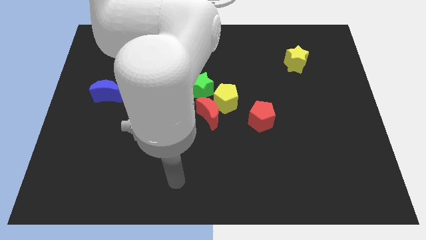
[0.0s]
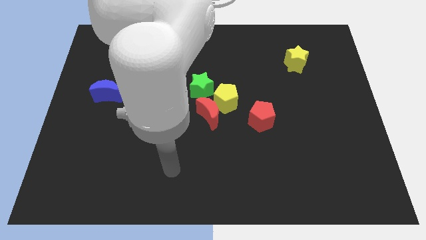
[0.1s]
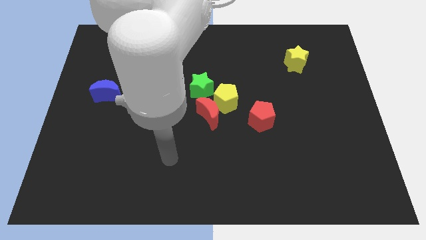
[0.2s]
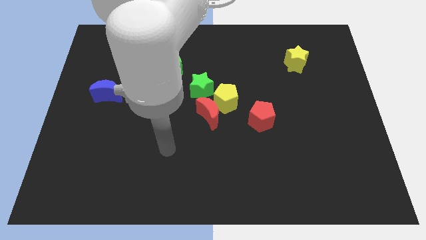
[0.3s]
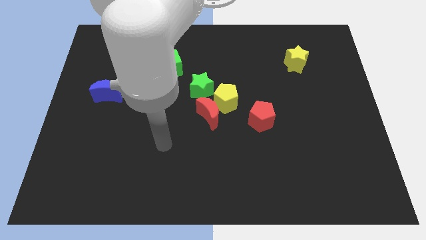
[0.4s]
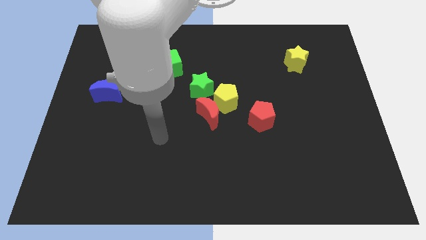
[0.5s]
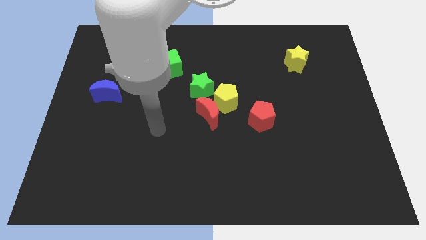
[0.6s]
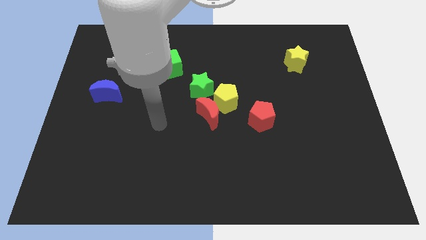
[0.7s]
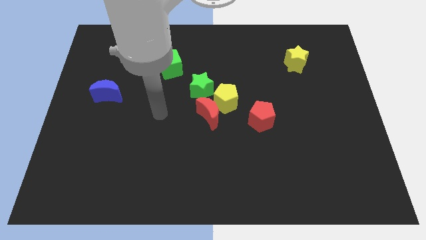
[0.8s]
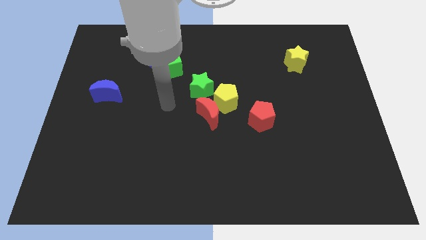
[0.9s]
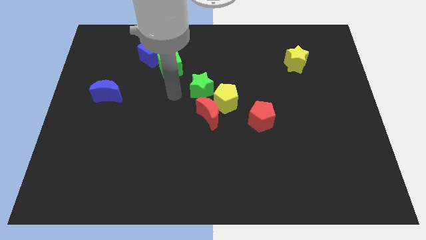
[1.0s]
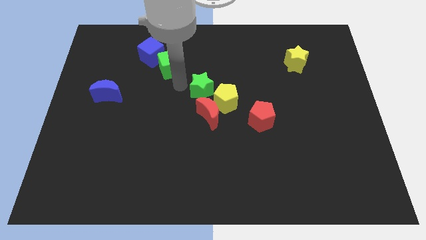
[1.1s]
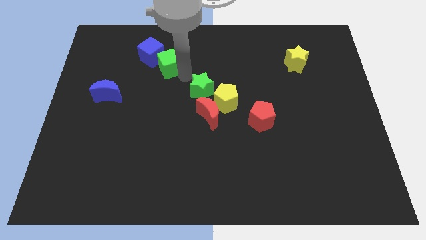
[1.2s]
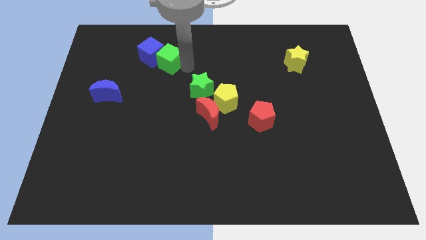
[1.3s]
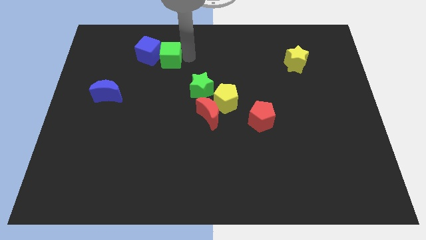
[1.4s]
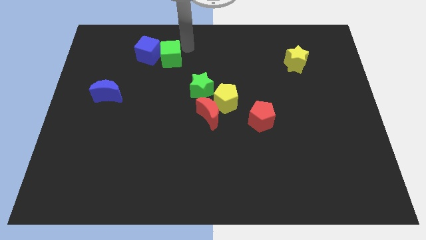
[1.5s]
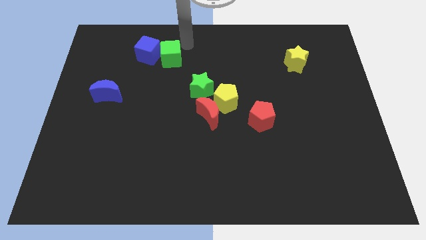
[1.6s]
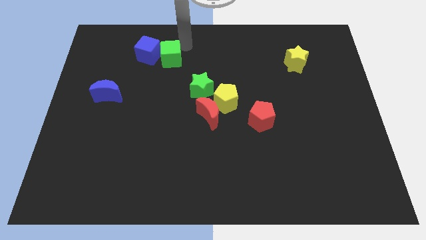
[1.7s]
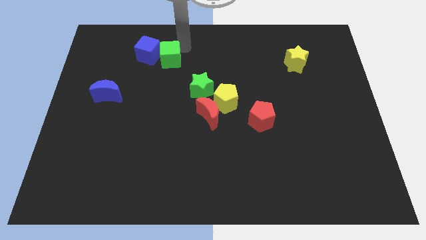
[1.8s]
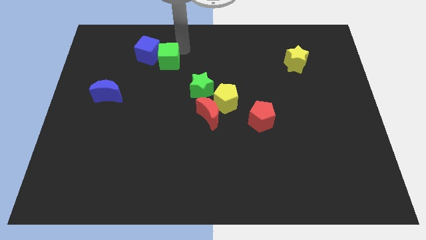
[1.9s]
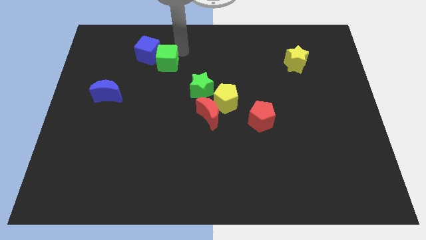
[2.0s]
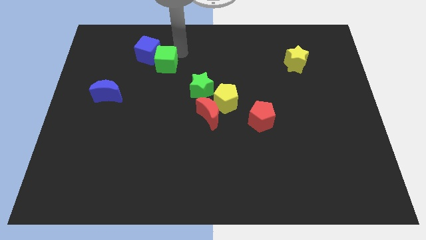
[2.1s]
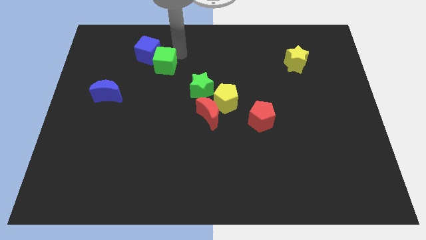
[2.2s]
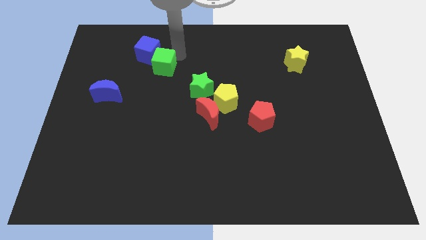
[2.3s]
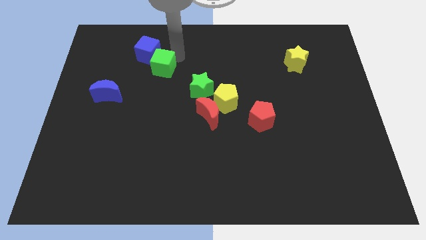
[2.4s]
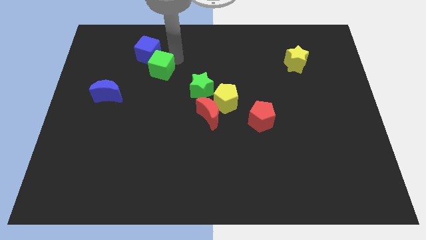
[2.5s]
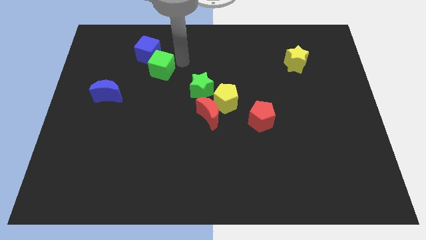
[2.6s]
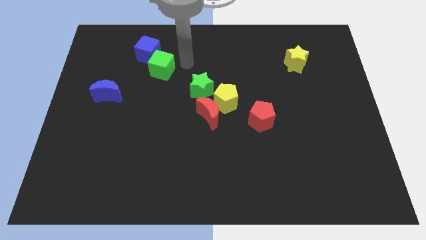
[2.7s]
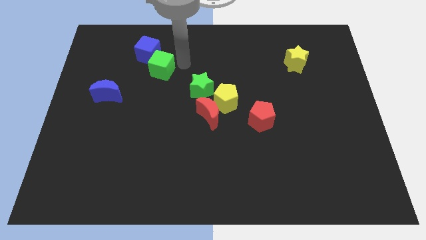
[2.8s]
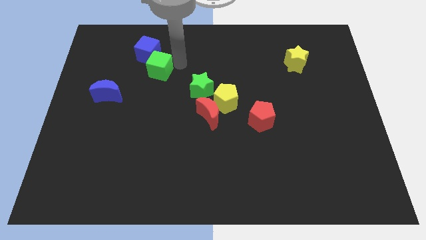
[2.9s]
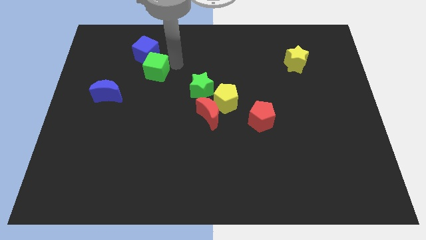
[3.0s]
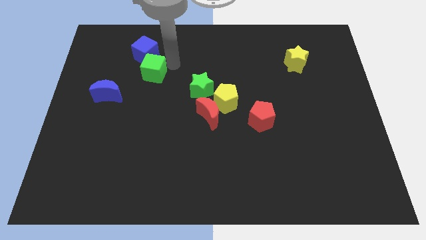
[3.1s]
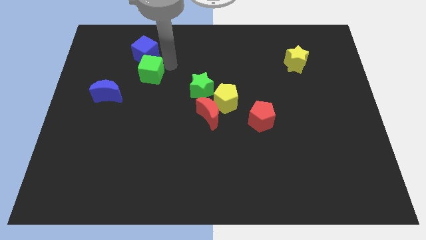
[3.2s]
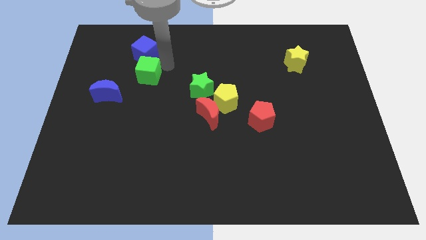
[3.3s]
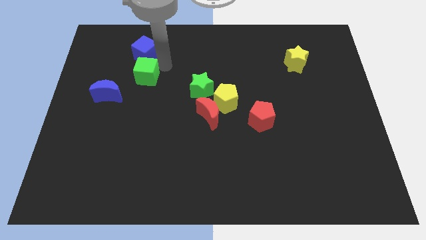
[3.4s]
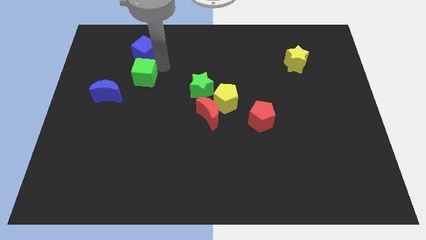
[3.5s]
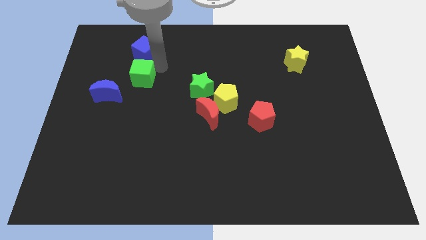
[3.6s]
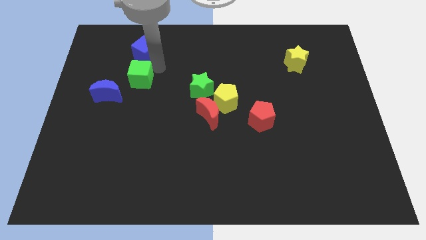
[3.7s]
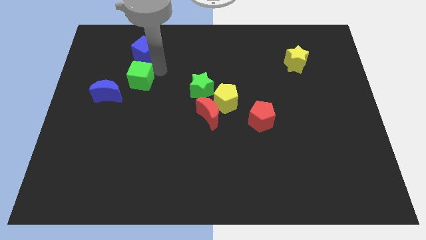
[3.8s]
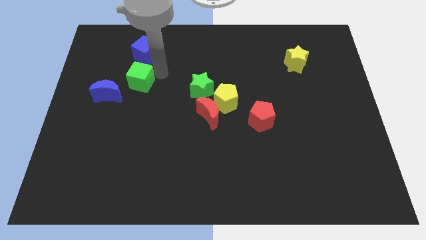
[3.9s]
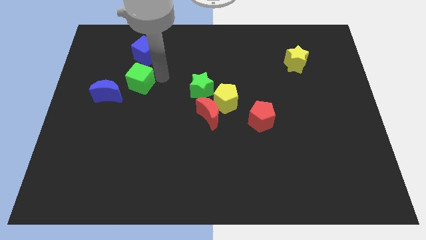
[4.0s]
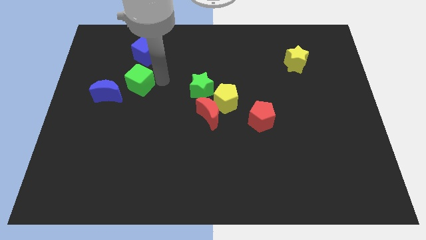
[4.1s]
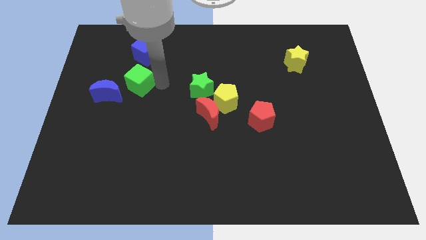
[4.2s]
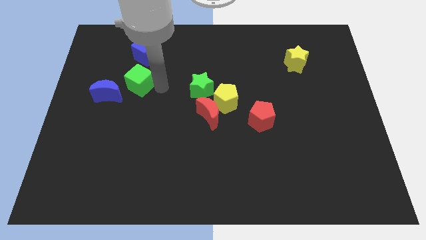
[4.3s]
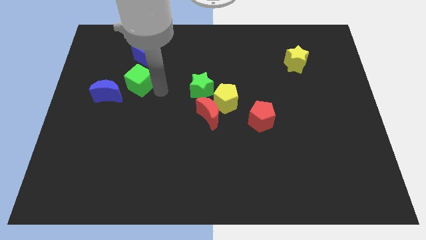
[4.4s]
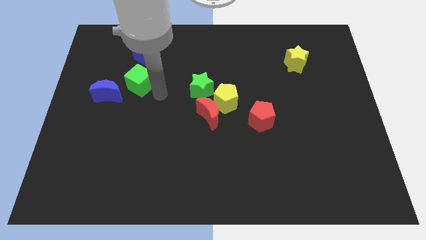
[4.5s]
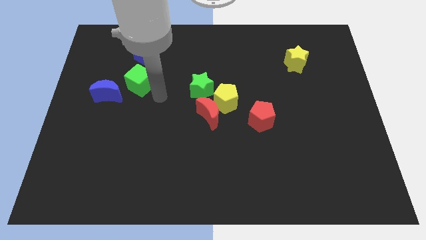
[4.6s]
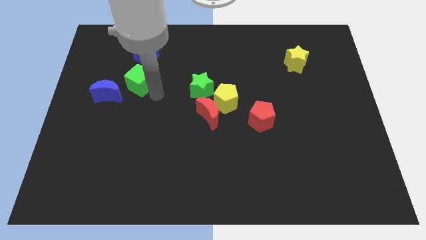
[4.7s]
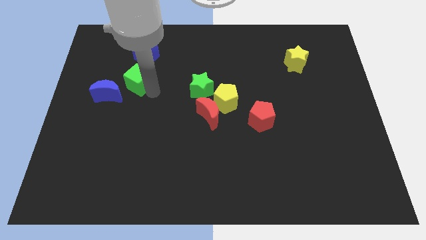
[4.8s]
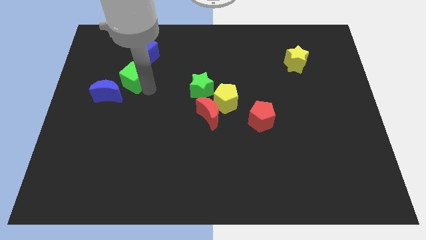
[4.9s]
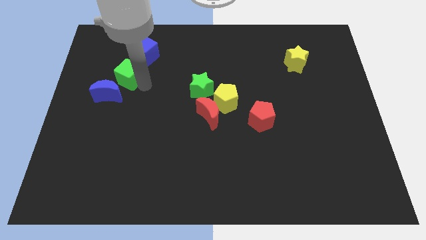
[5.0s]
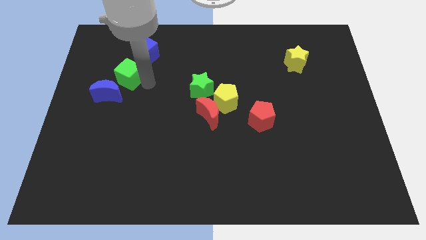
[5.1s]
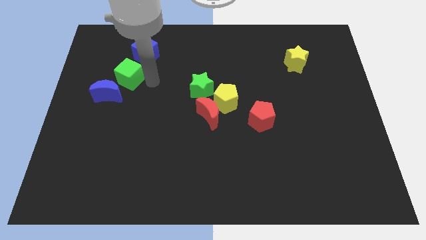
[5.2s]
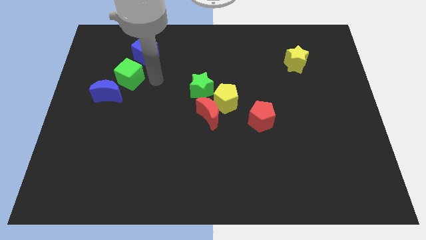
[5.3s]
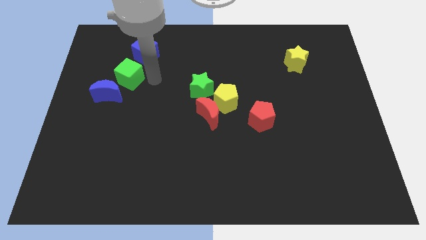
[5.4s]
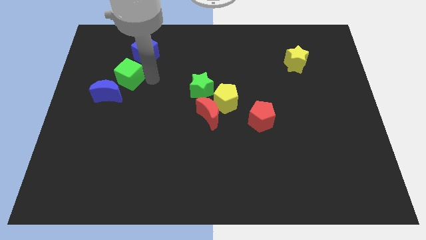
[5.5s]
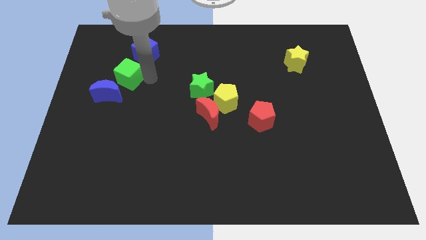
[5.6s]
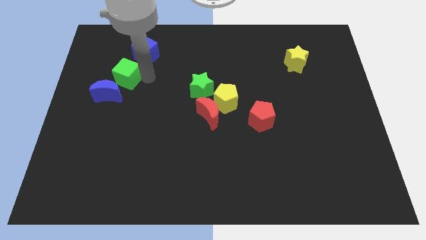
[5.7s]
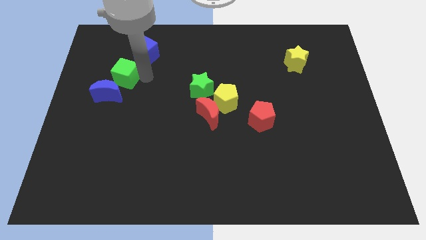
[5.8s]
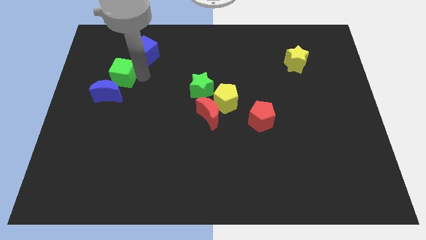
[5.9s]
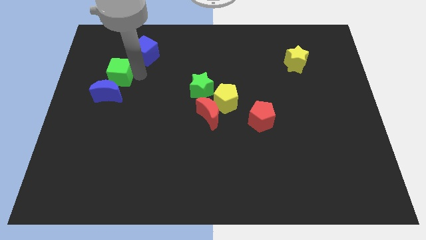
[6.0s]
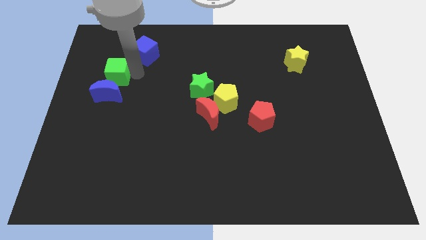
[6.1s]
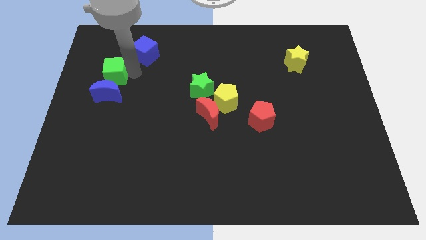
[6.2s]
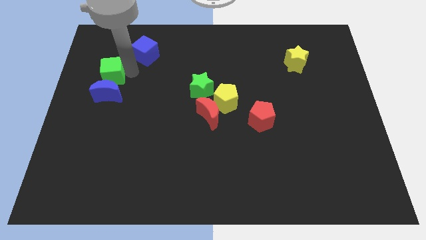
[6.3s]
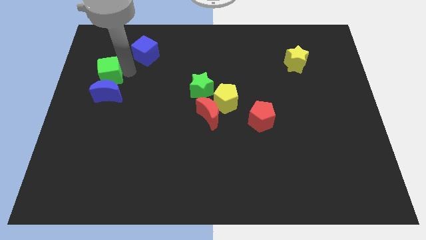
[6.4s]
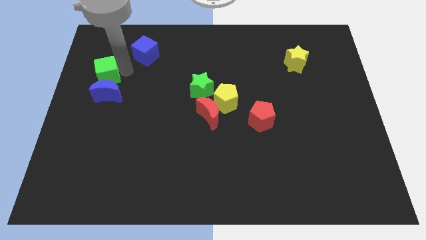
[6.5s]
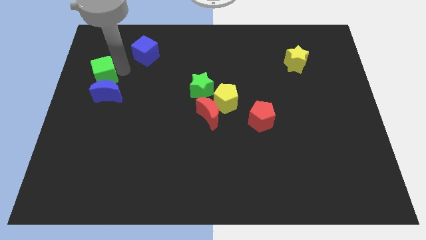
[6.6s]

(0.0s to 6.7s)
push the green cube to the left side of the board
